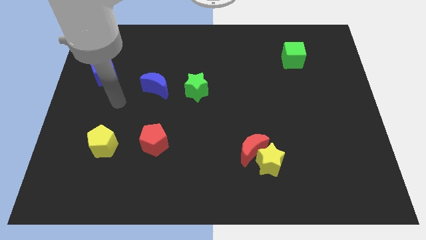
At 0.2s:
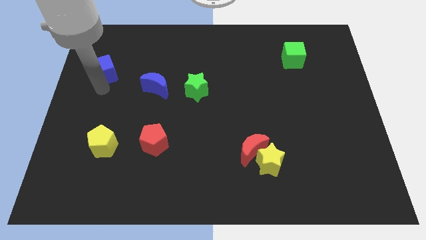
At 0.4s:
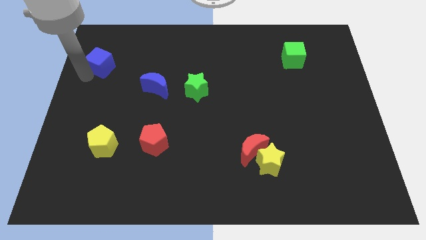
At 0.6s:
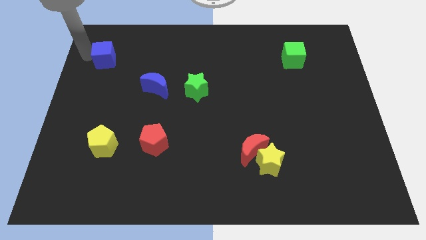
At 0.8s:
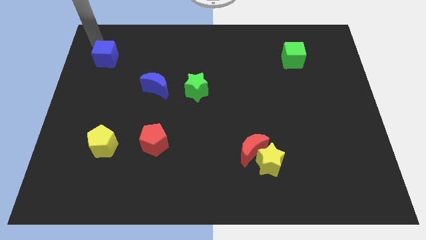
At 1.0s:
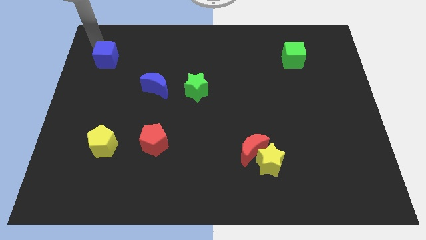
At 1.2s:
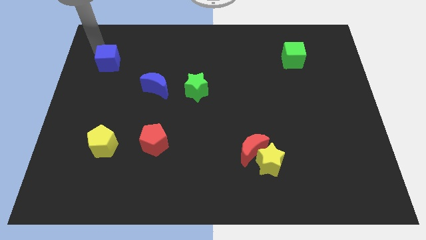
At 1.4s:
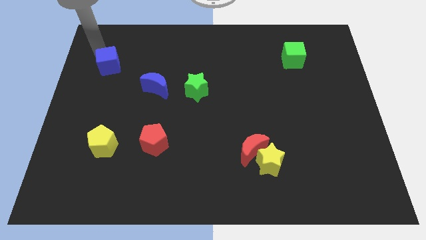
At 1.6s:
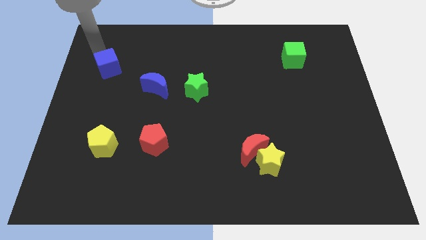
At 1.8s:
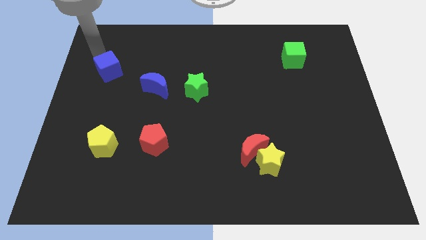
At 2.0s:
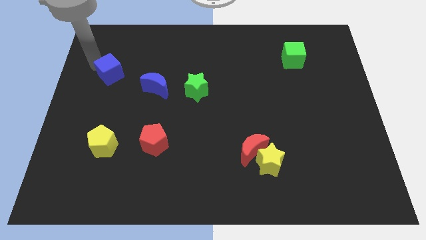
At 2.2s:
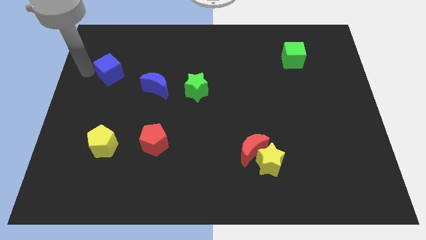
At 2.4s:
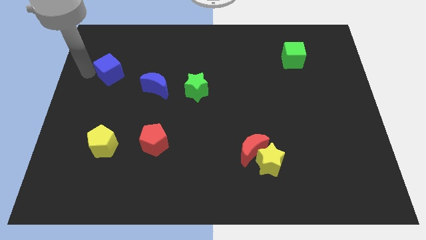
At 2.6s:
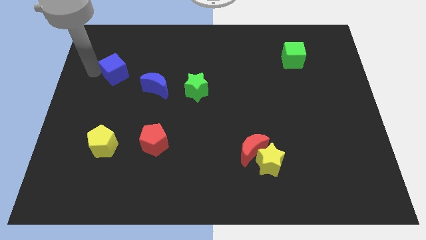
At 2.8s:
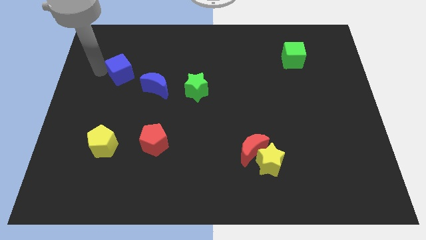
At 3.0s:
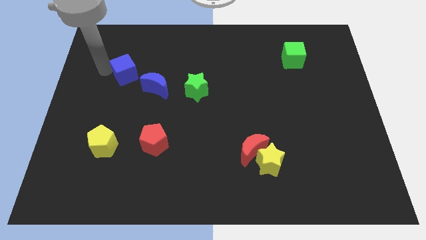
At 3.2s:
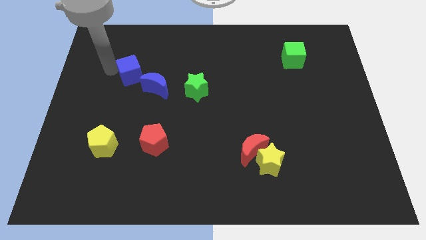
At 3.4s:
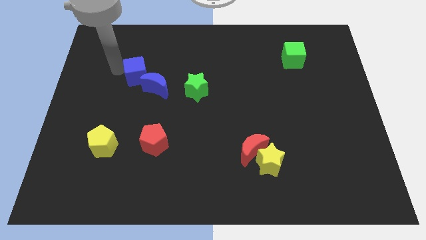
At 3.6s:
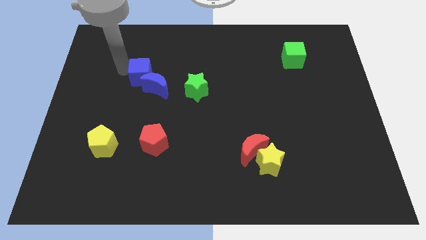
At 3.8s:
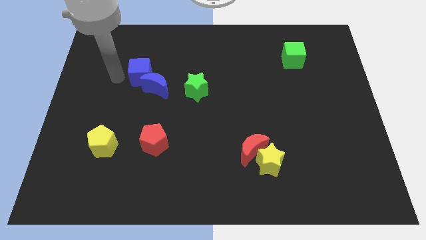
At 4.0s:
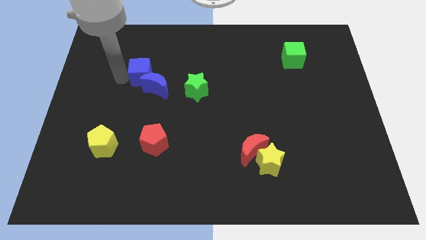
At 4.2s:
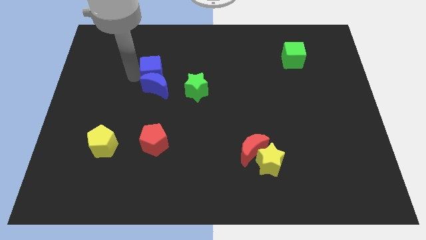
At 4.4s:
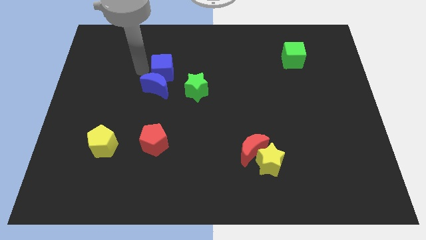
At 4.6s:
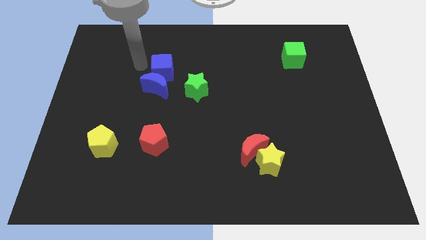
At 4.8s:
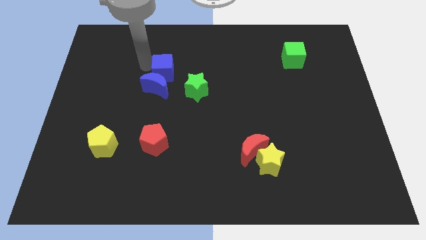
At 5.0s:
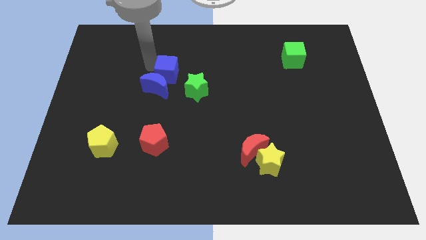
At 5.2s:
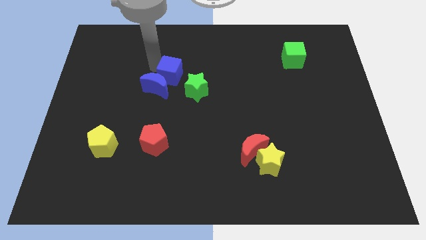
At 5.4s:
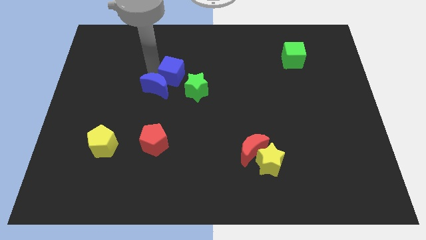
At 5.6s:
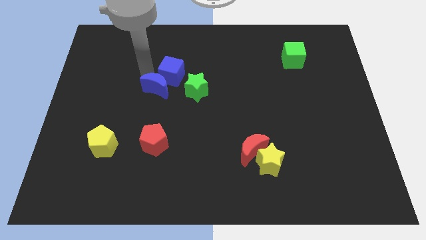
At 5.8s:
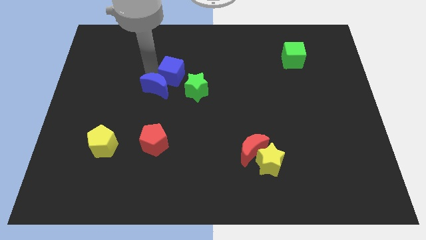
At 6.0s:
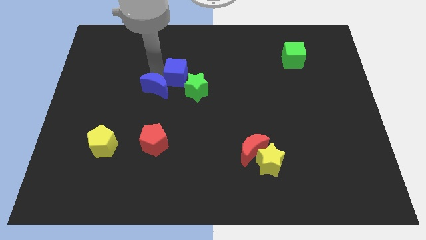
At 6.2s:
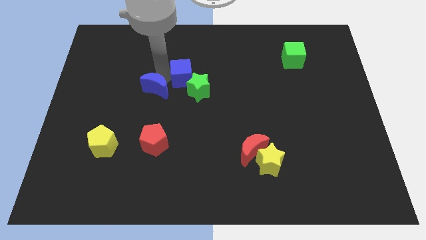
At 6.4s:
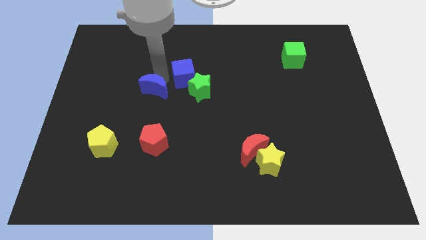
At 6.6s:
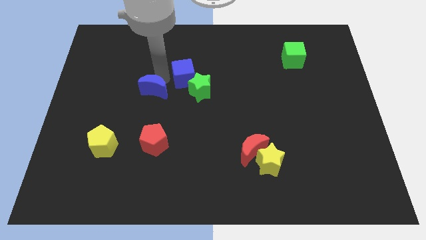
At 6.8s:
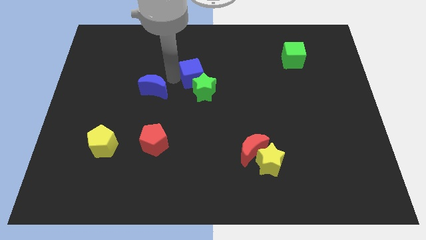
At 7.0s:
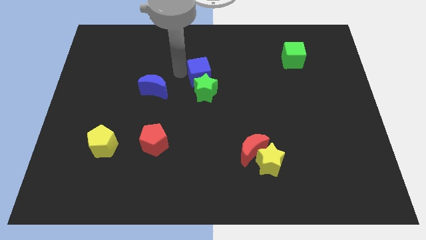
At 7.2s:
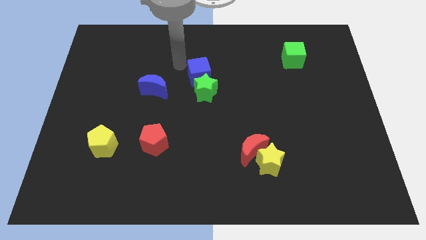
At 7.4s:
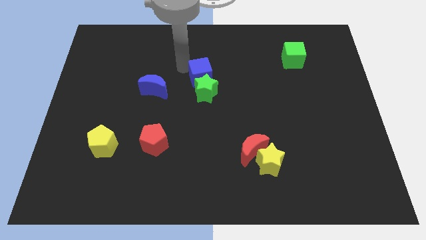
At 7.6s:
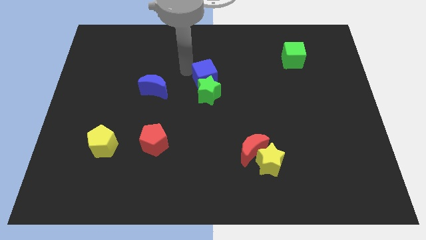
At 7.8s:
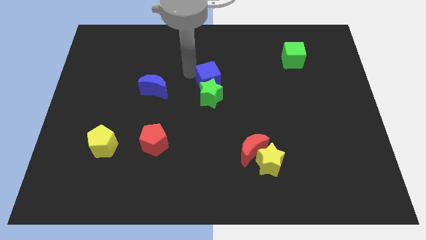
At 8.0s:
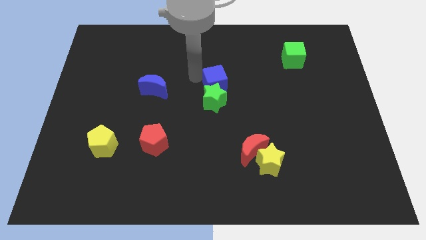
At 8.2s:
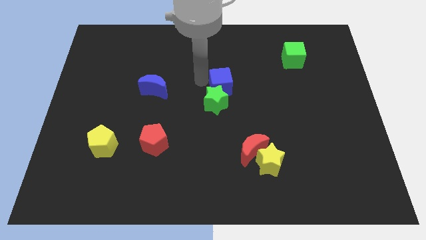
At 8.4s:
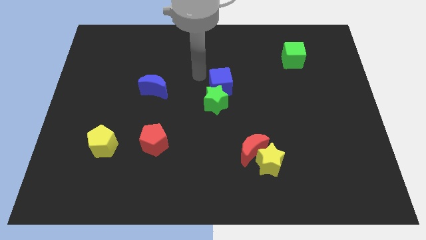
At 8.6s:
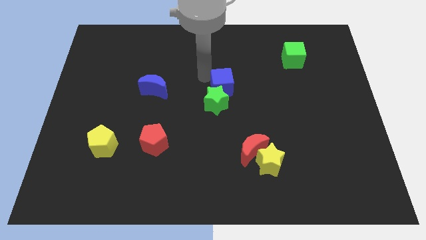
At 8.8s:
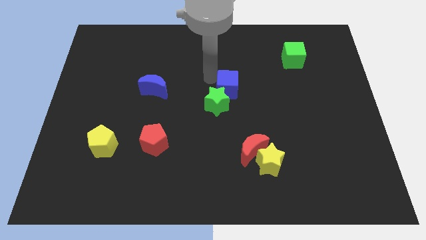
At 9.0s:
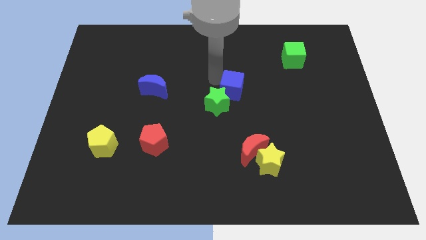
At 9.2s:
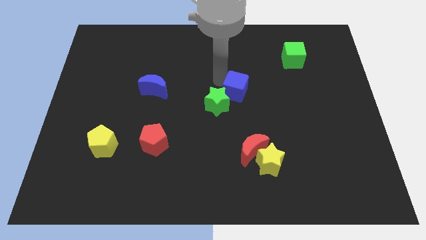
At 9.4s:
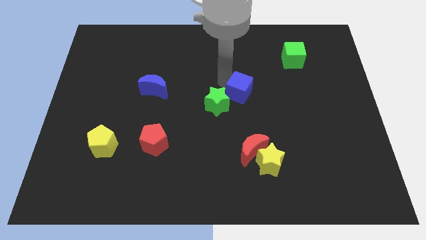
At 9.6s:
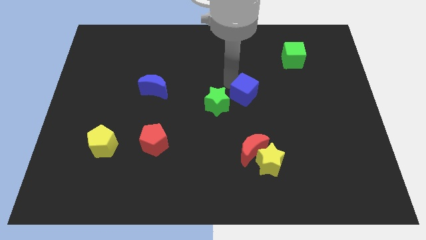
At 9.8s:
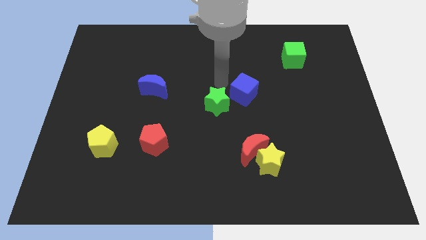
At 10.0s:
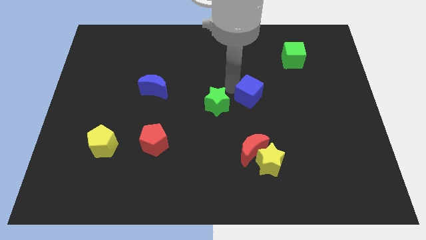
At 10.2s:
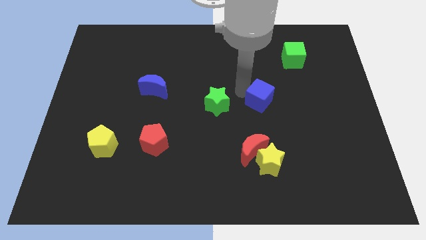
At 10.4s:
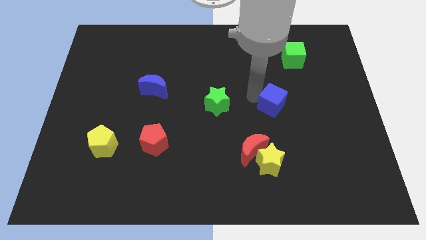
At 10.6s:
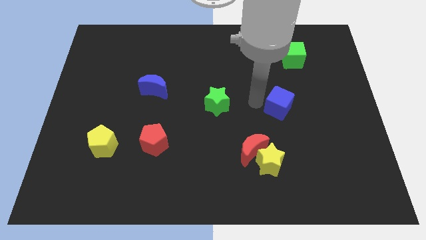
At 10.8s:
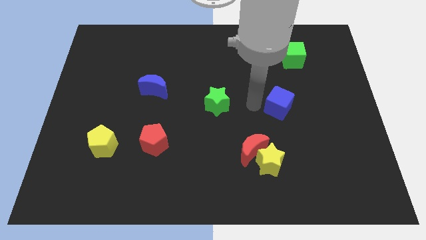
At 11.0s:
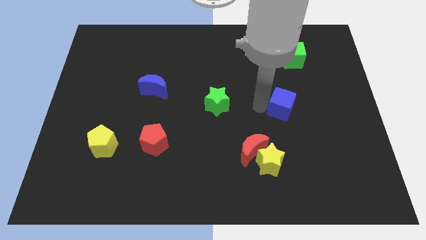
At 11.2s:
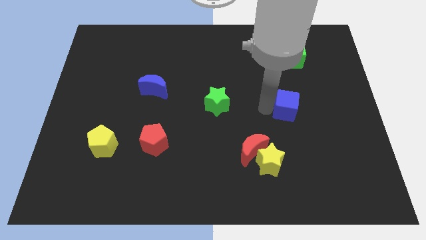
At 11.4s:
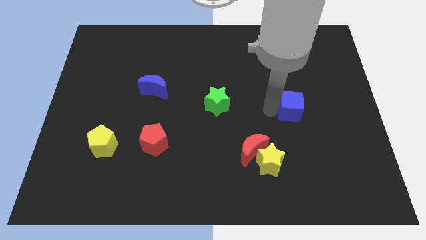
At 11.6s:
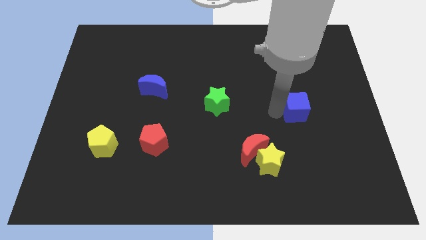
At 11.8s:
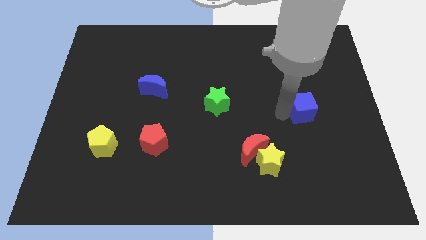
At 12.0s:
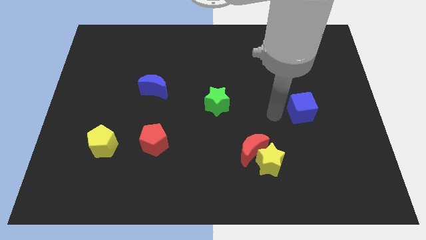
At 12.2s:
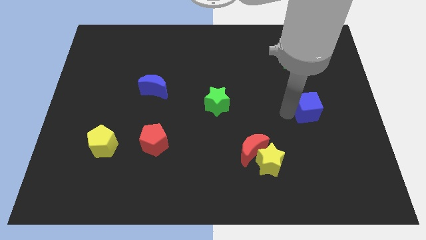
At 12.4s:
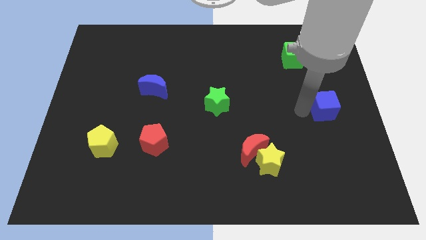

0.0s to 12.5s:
slide the blue cube to the right side

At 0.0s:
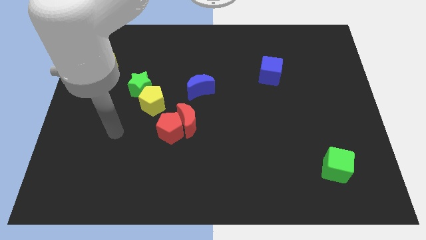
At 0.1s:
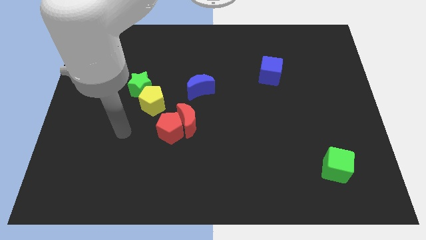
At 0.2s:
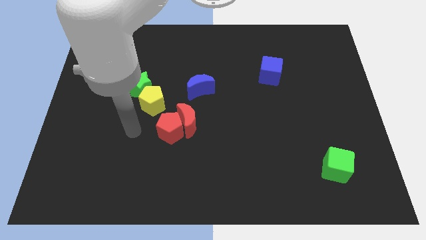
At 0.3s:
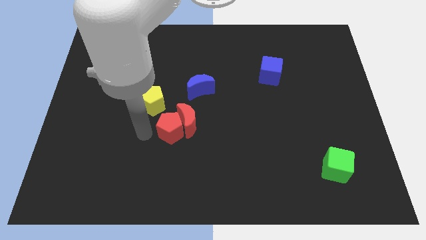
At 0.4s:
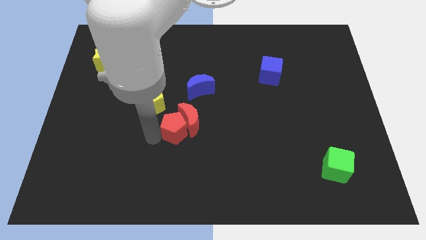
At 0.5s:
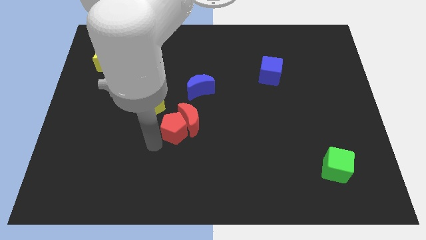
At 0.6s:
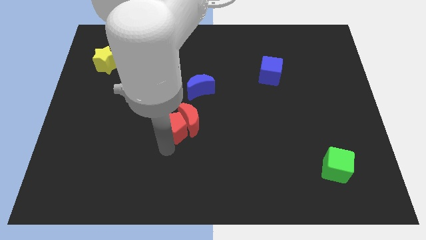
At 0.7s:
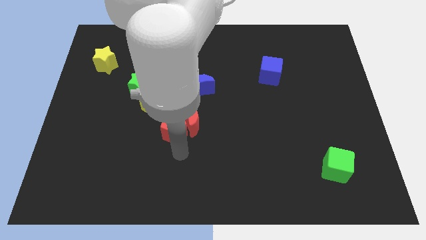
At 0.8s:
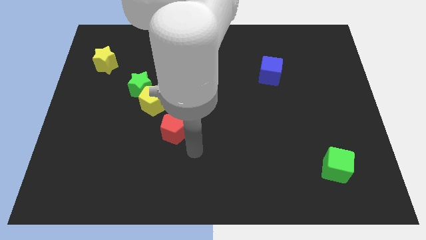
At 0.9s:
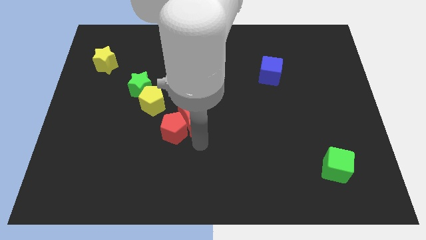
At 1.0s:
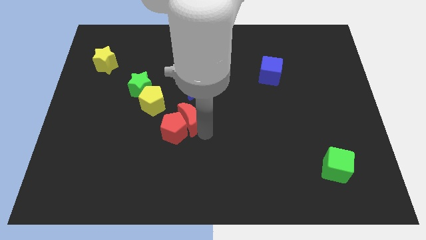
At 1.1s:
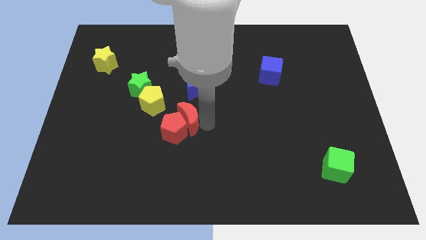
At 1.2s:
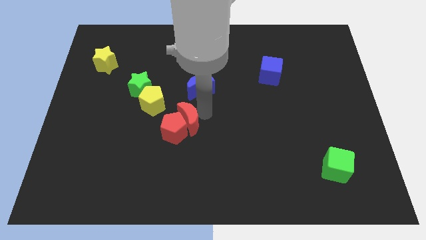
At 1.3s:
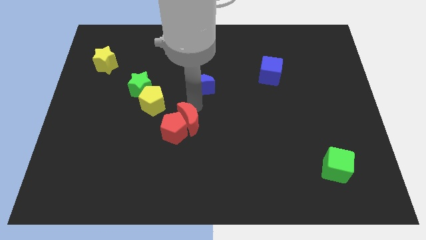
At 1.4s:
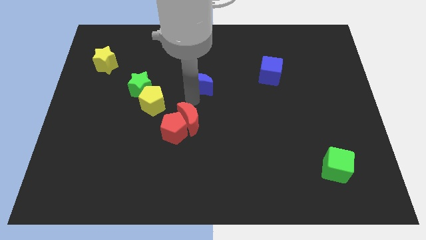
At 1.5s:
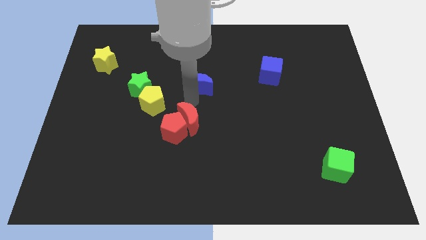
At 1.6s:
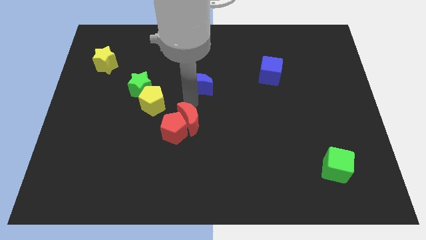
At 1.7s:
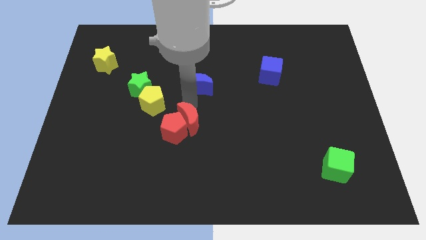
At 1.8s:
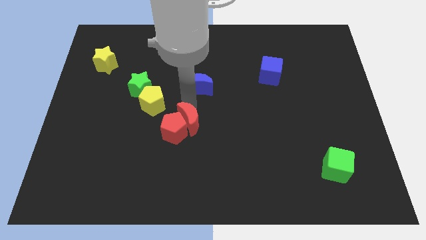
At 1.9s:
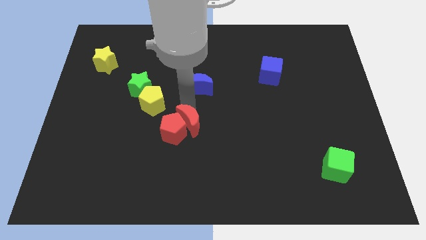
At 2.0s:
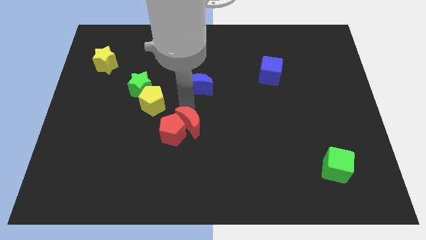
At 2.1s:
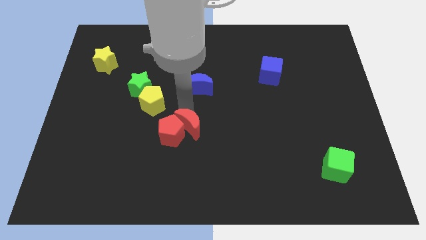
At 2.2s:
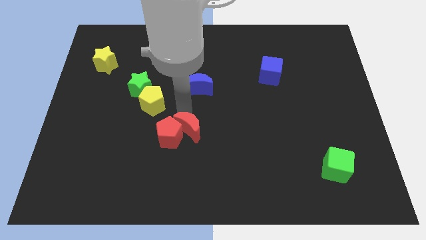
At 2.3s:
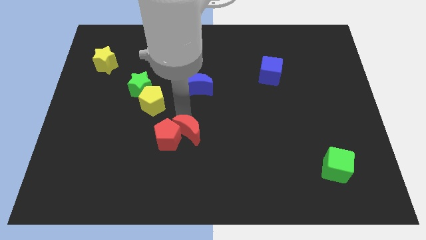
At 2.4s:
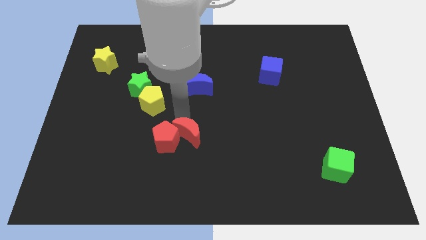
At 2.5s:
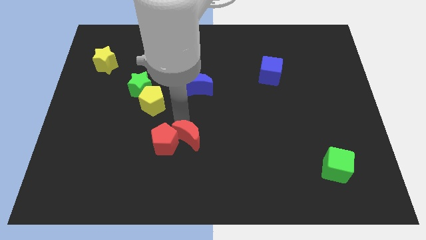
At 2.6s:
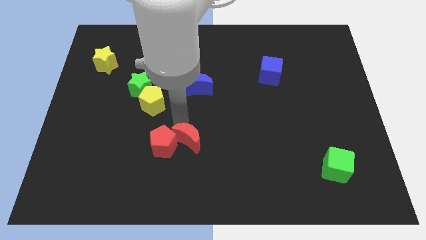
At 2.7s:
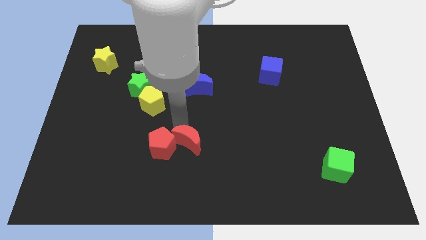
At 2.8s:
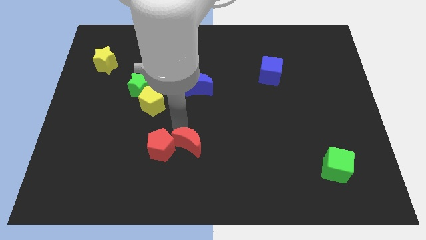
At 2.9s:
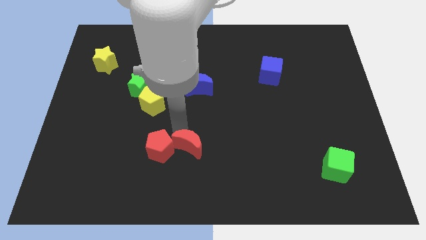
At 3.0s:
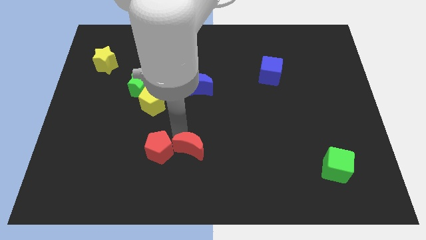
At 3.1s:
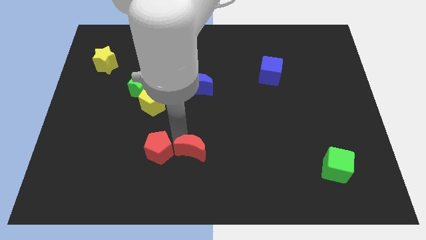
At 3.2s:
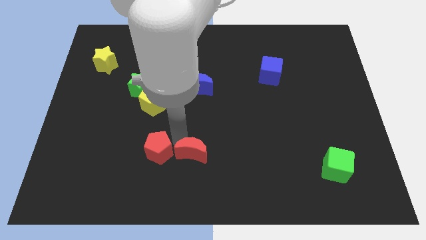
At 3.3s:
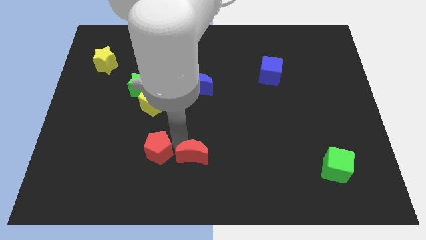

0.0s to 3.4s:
move the red moon to the bottom side
